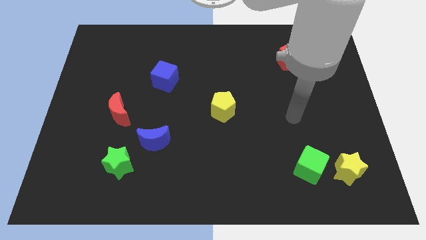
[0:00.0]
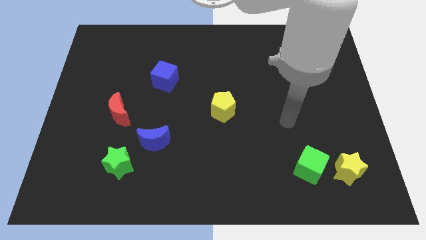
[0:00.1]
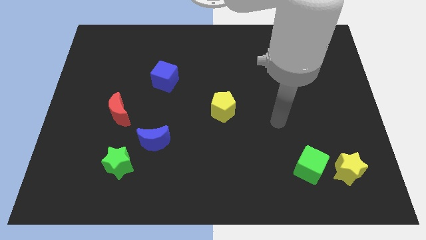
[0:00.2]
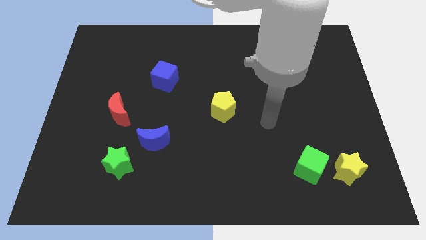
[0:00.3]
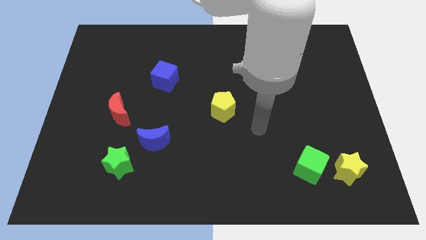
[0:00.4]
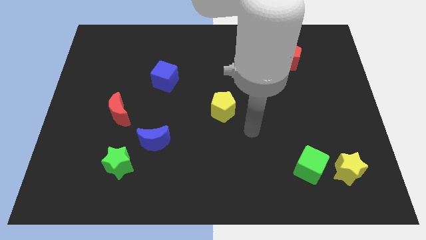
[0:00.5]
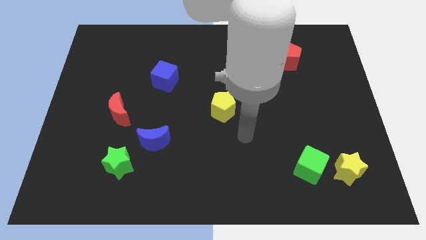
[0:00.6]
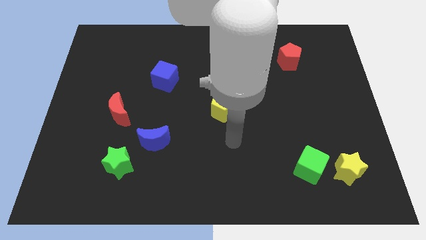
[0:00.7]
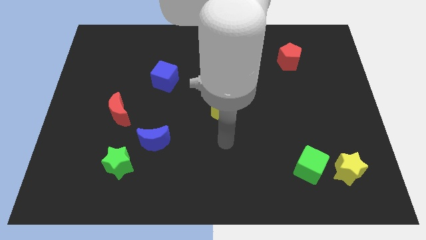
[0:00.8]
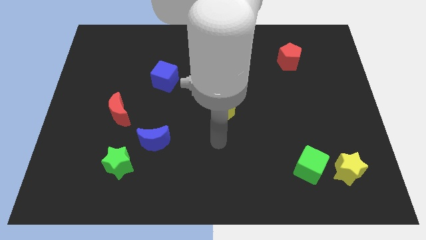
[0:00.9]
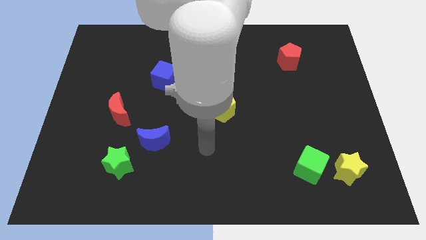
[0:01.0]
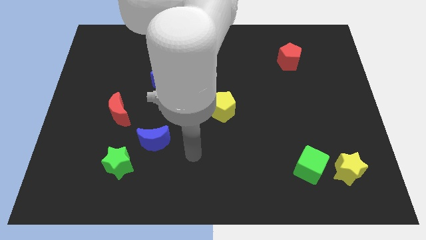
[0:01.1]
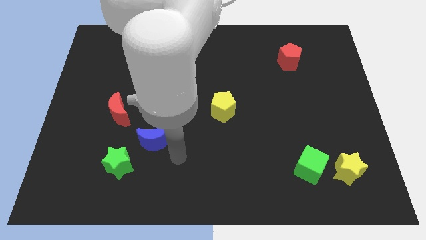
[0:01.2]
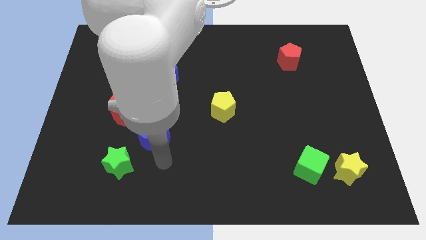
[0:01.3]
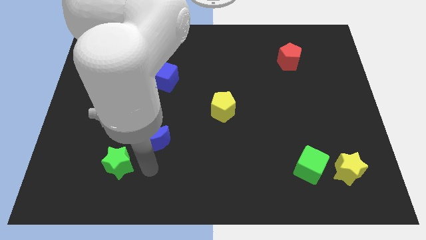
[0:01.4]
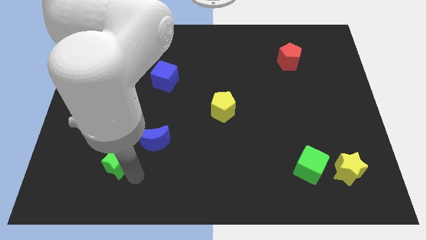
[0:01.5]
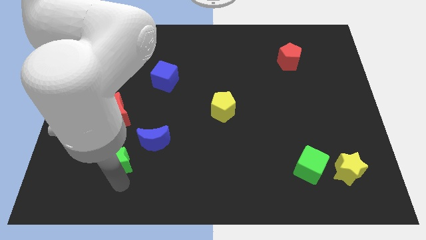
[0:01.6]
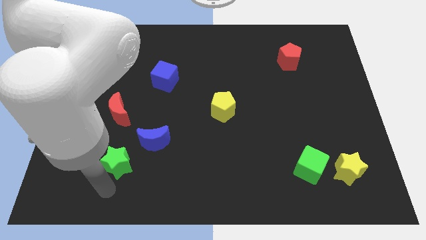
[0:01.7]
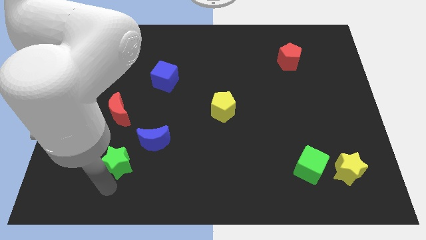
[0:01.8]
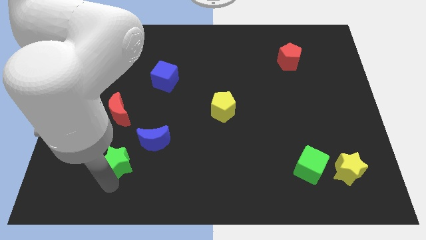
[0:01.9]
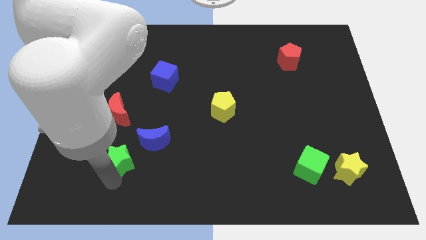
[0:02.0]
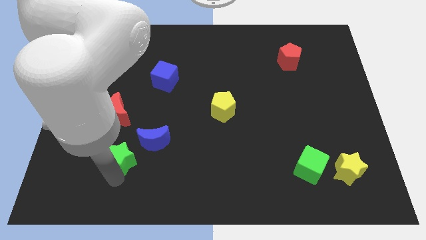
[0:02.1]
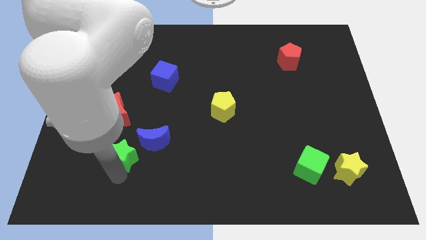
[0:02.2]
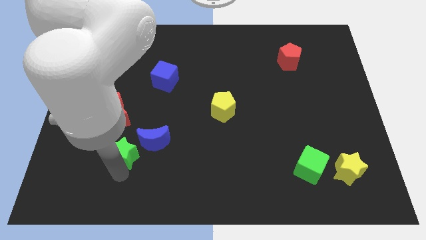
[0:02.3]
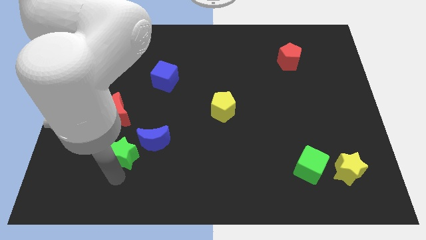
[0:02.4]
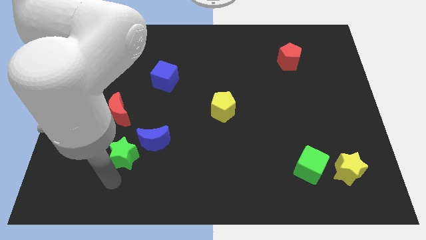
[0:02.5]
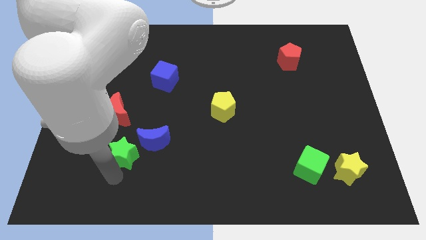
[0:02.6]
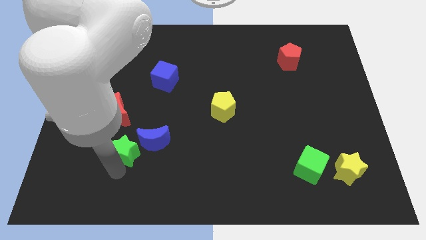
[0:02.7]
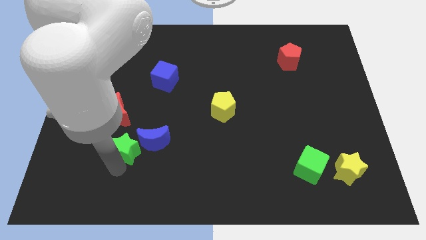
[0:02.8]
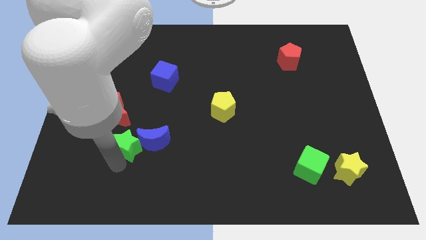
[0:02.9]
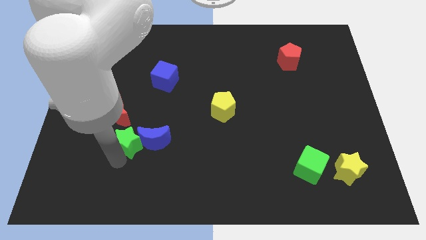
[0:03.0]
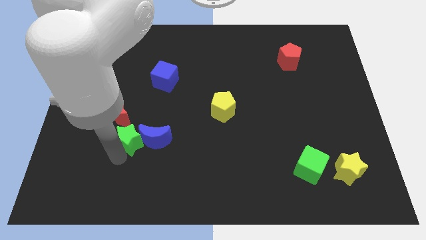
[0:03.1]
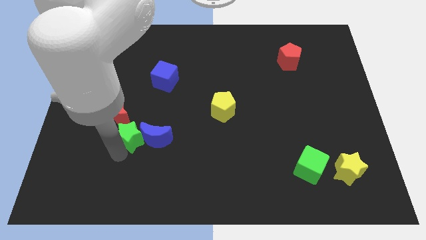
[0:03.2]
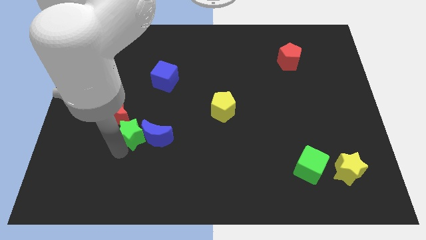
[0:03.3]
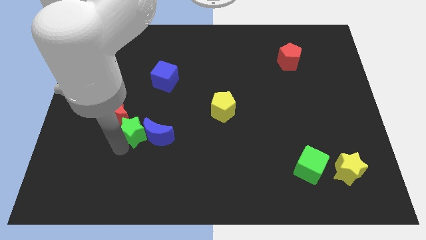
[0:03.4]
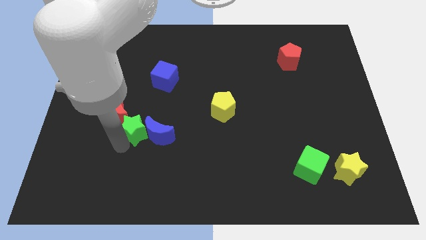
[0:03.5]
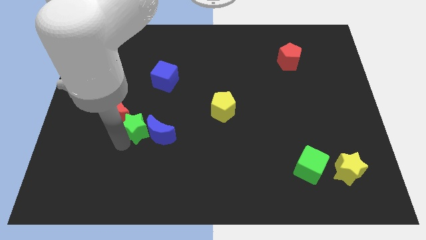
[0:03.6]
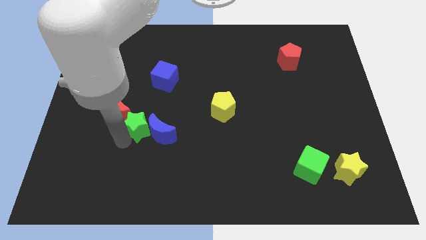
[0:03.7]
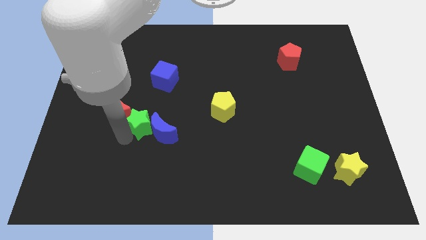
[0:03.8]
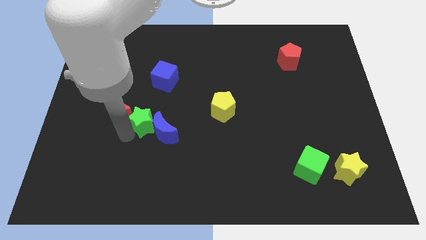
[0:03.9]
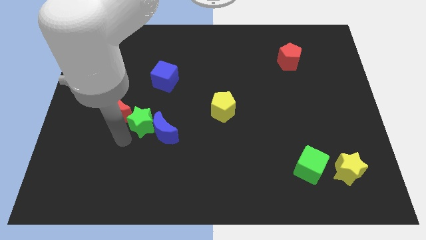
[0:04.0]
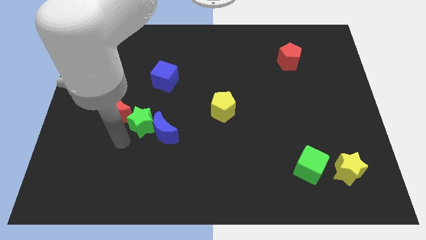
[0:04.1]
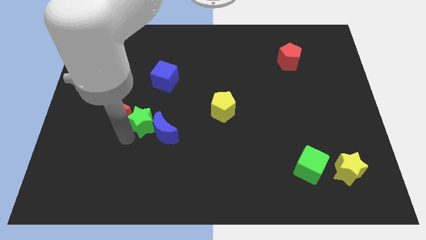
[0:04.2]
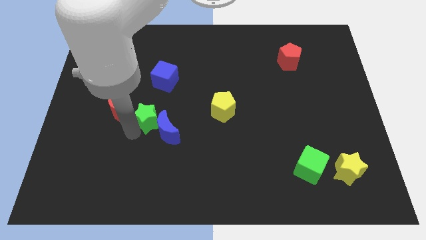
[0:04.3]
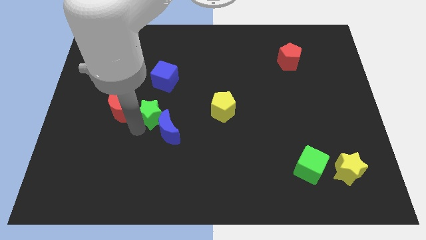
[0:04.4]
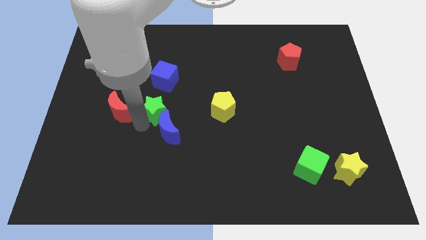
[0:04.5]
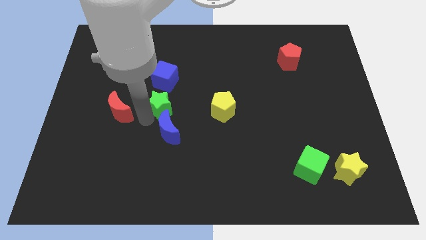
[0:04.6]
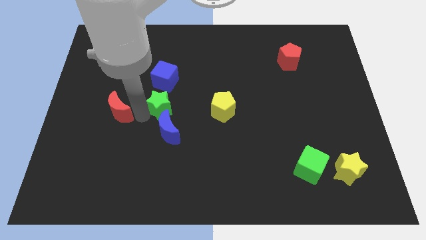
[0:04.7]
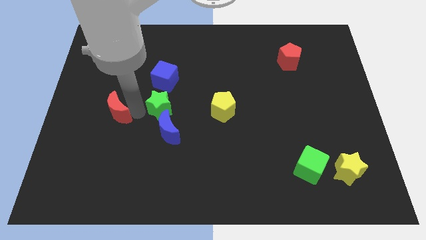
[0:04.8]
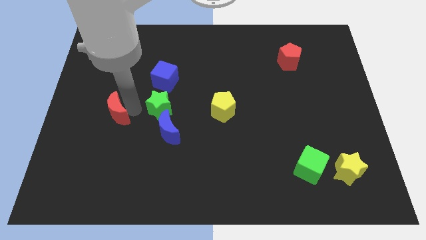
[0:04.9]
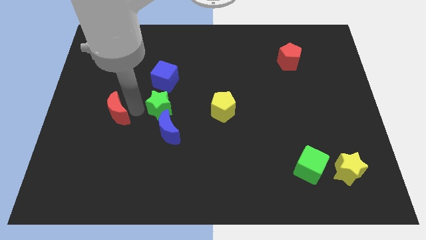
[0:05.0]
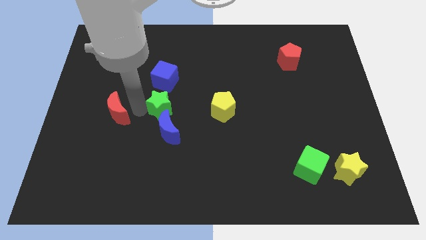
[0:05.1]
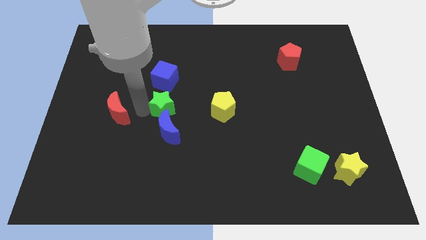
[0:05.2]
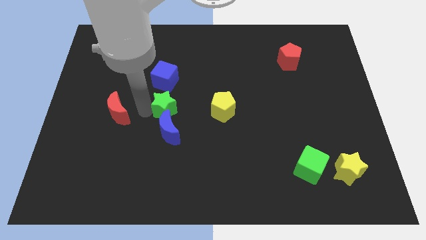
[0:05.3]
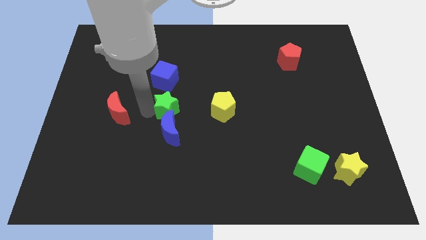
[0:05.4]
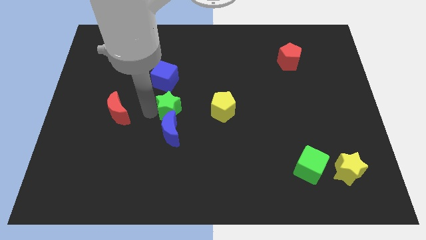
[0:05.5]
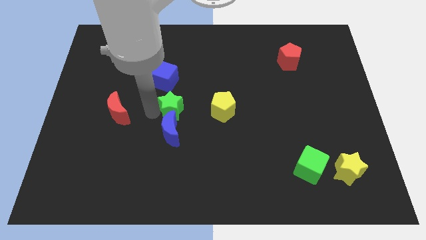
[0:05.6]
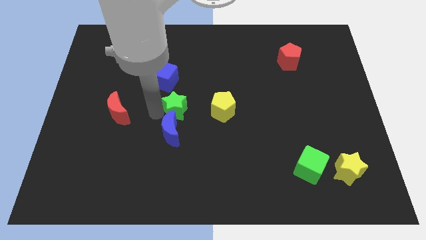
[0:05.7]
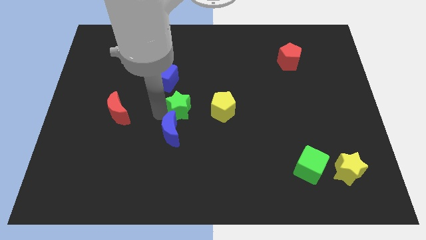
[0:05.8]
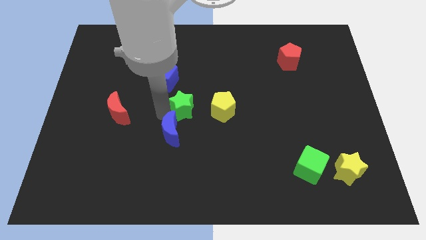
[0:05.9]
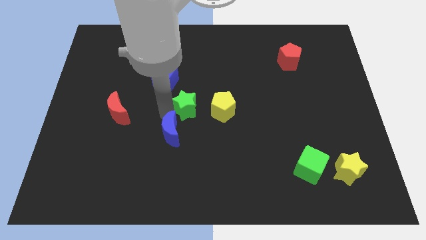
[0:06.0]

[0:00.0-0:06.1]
push the green star upwards and then right

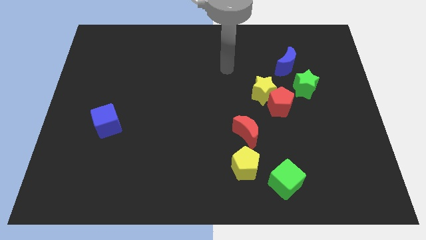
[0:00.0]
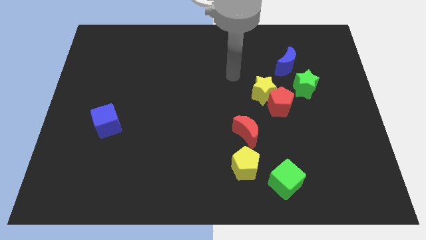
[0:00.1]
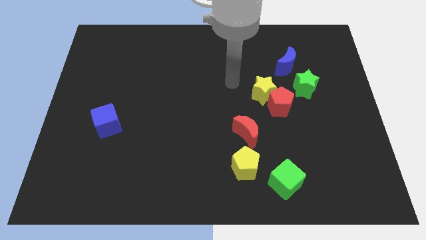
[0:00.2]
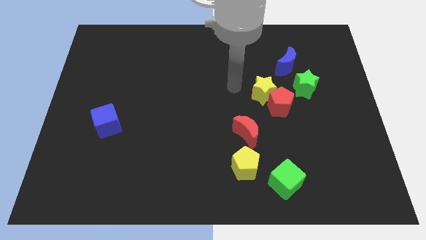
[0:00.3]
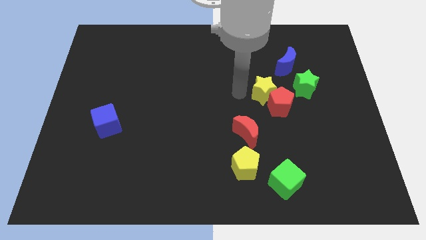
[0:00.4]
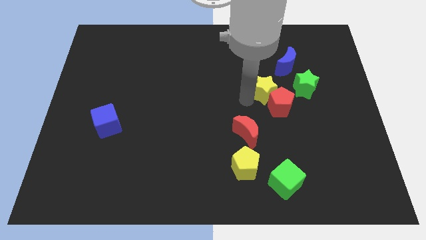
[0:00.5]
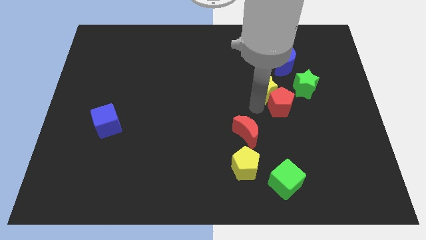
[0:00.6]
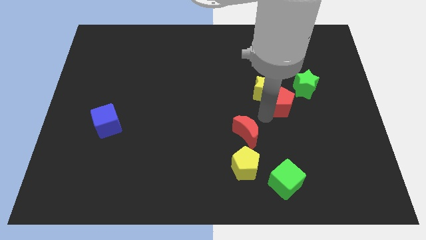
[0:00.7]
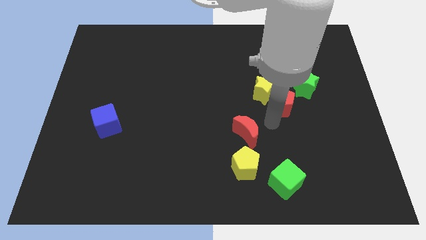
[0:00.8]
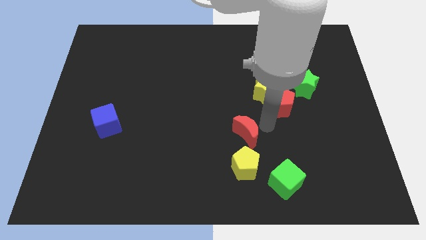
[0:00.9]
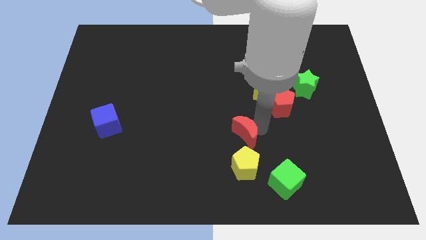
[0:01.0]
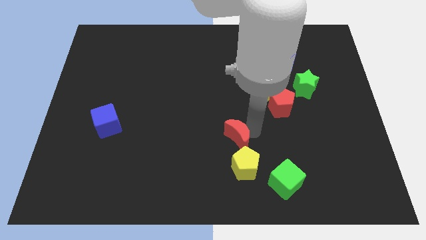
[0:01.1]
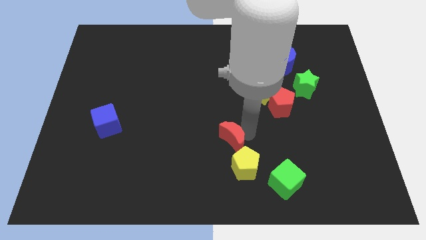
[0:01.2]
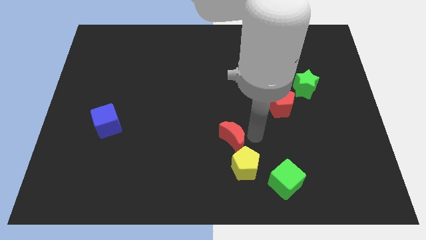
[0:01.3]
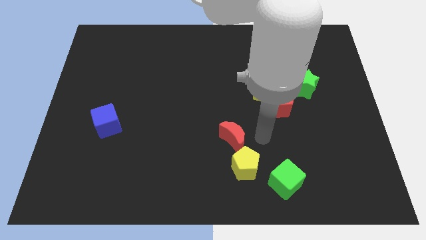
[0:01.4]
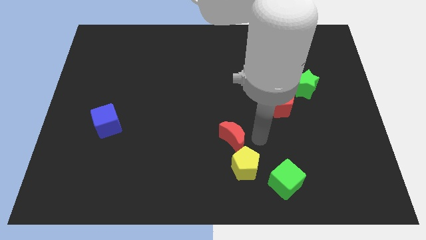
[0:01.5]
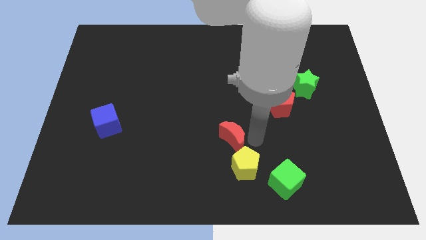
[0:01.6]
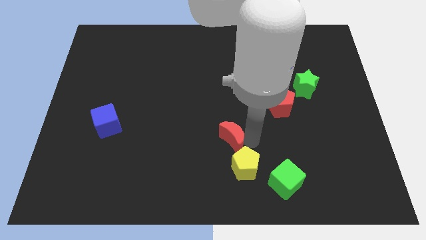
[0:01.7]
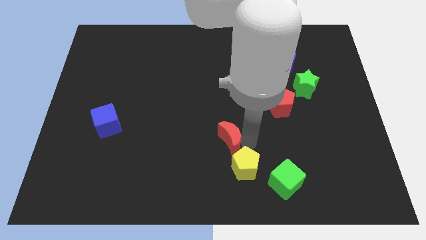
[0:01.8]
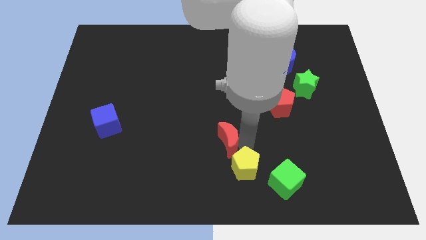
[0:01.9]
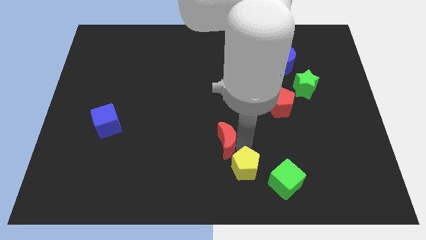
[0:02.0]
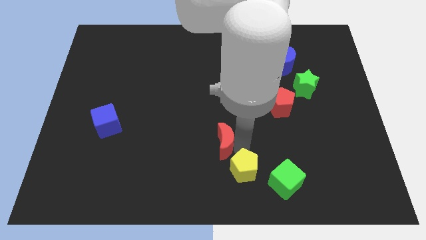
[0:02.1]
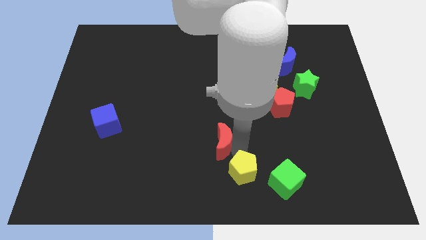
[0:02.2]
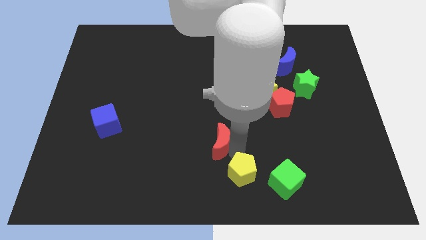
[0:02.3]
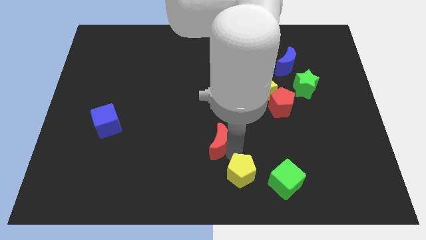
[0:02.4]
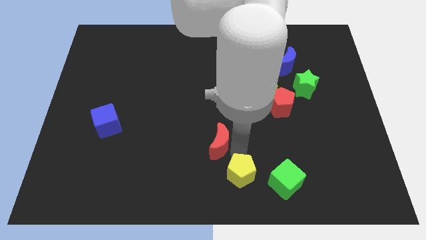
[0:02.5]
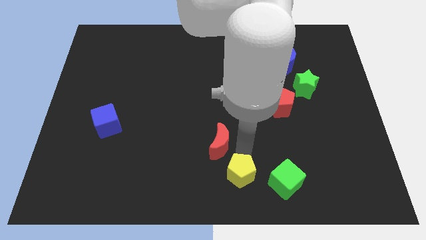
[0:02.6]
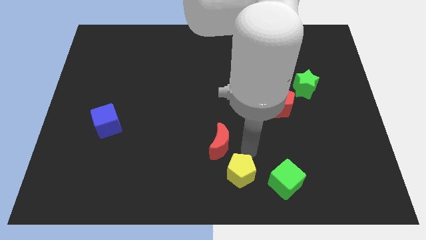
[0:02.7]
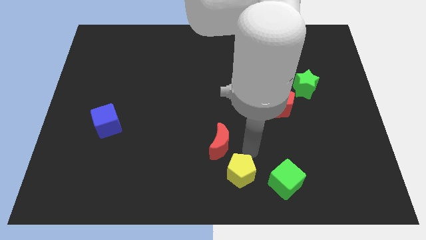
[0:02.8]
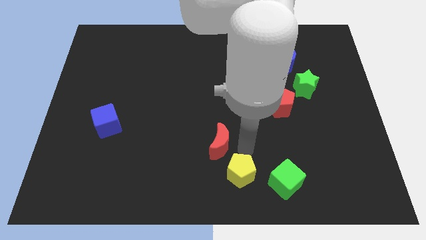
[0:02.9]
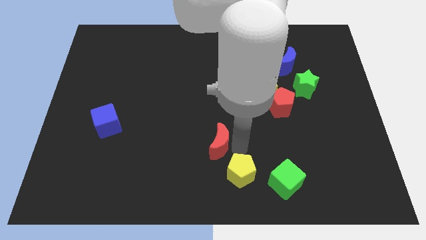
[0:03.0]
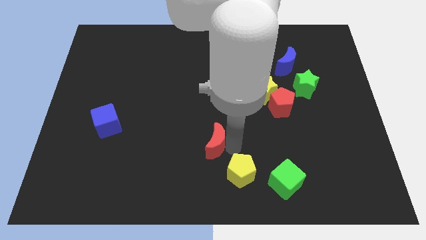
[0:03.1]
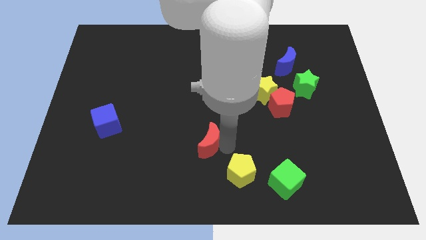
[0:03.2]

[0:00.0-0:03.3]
push the red moon to the left slightly
